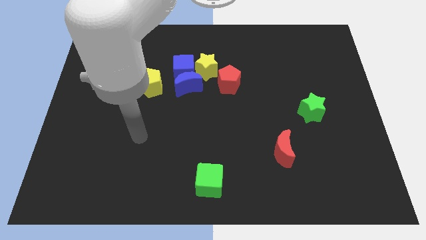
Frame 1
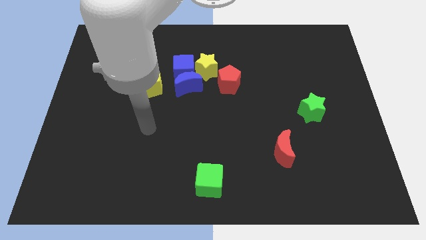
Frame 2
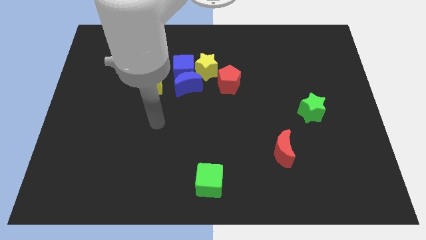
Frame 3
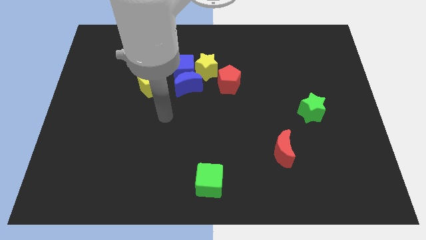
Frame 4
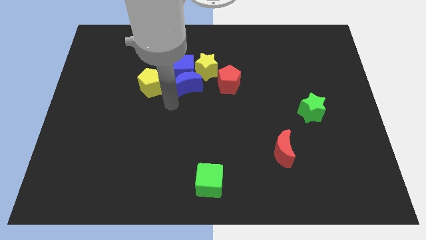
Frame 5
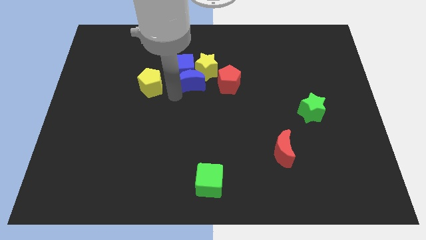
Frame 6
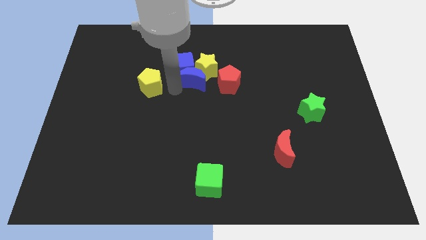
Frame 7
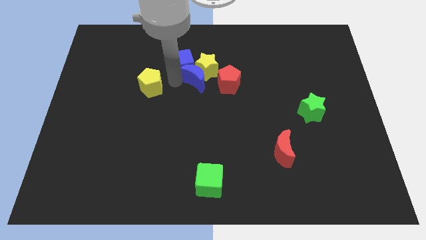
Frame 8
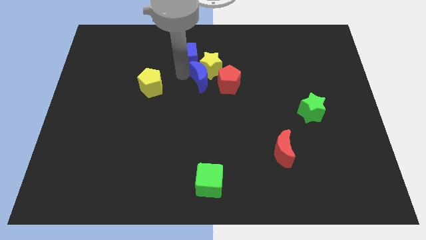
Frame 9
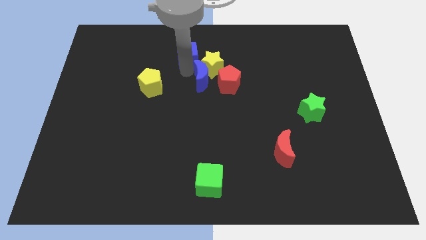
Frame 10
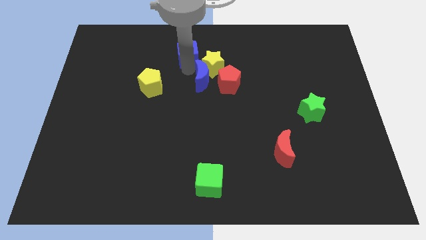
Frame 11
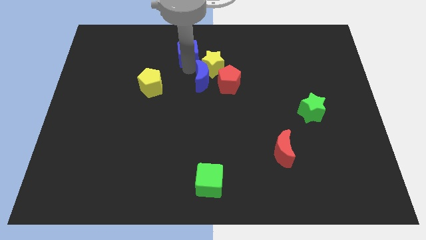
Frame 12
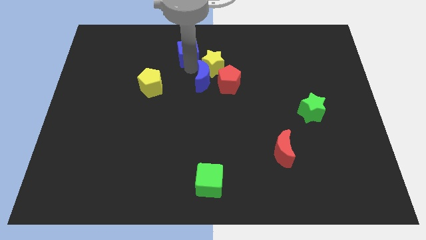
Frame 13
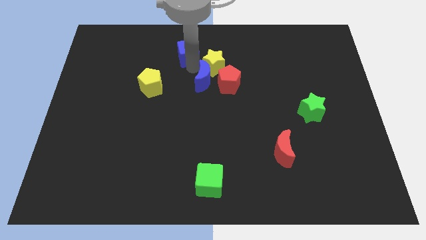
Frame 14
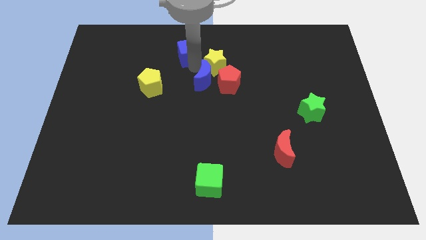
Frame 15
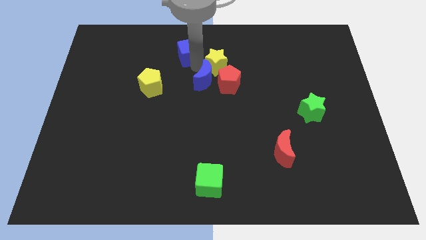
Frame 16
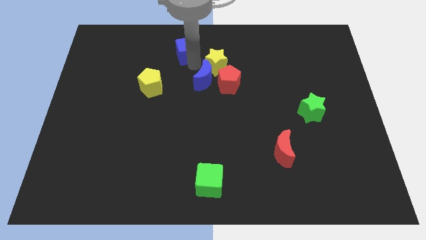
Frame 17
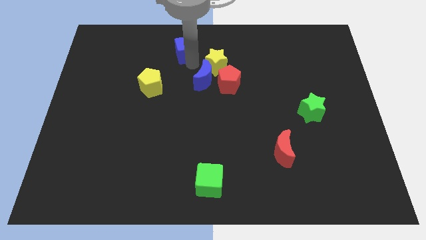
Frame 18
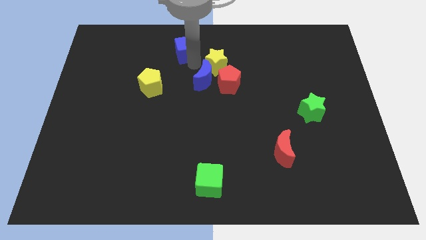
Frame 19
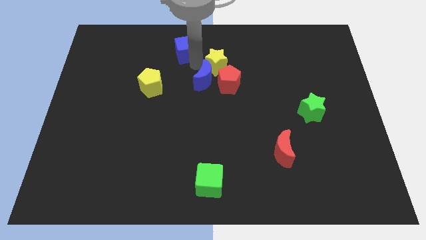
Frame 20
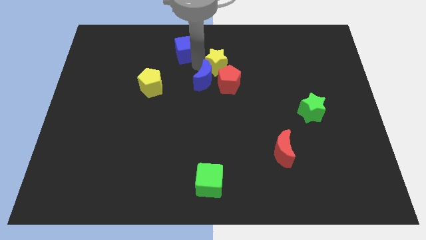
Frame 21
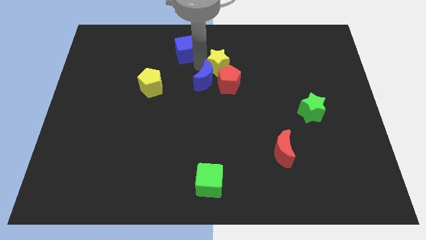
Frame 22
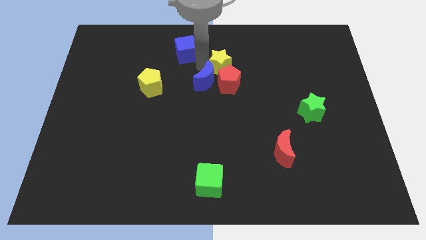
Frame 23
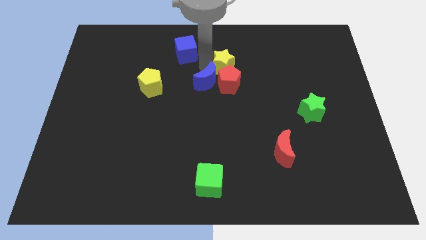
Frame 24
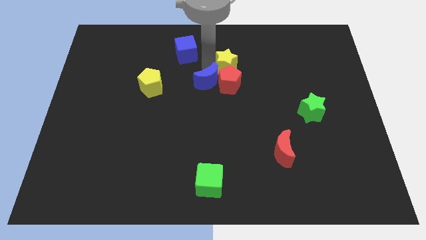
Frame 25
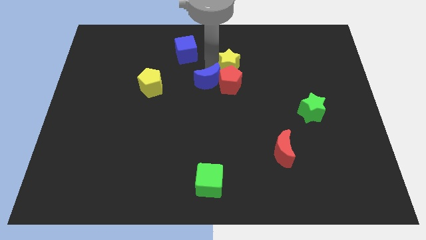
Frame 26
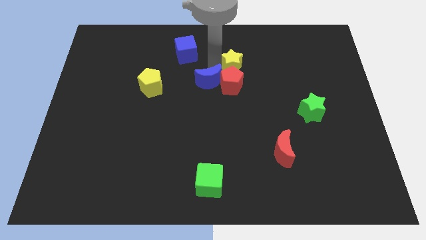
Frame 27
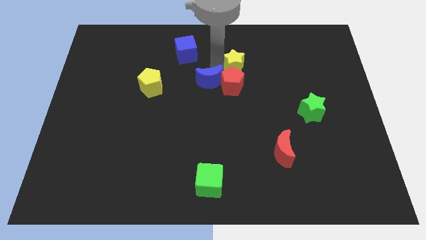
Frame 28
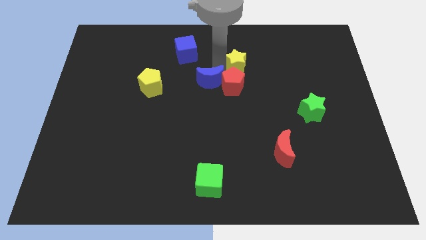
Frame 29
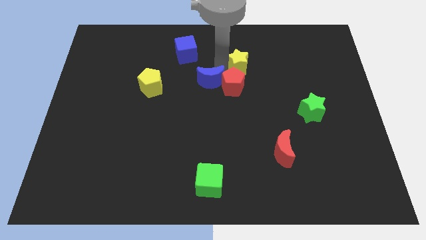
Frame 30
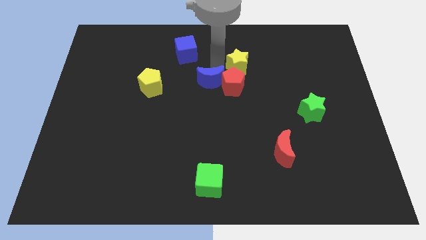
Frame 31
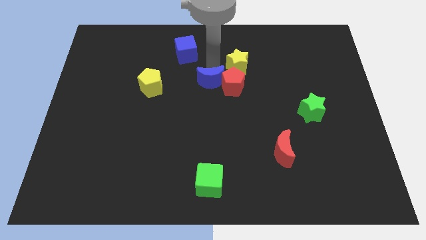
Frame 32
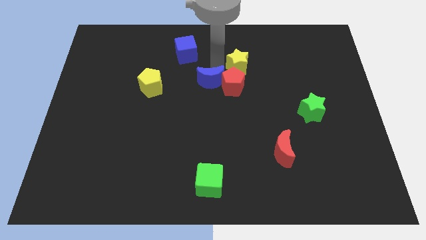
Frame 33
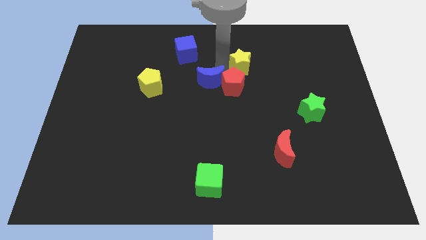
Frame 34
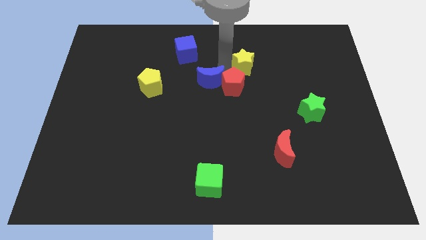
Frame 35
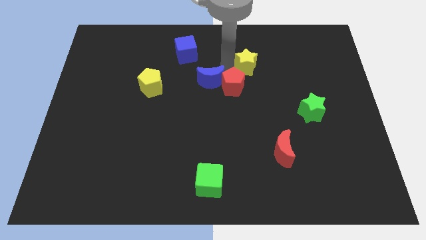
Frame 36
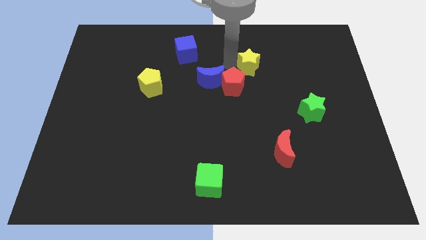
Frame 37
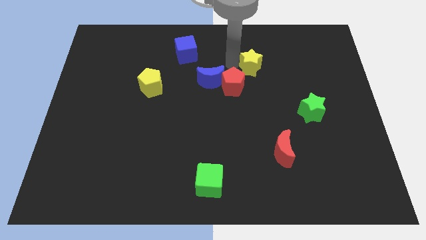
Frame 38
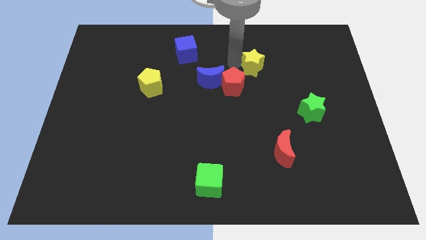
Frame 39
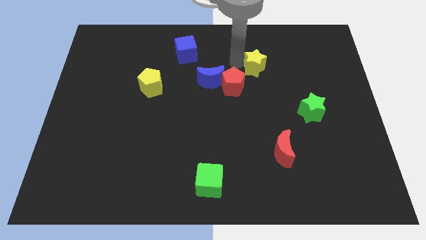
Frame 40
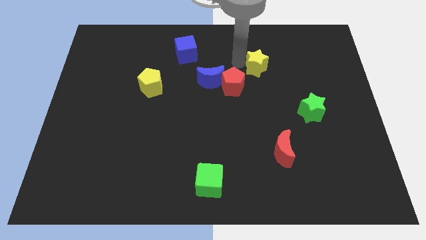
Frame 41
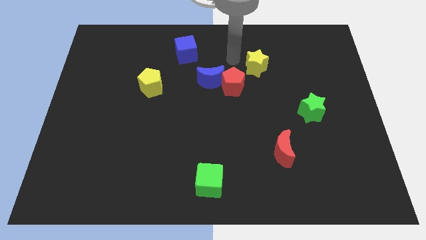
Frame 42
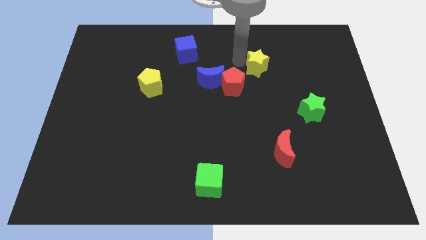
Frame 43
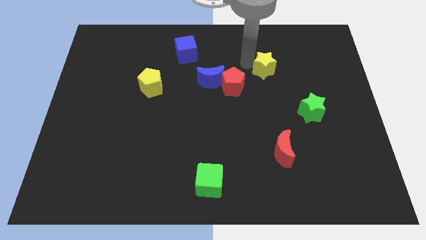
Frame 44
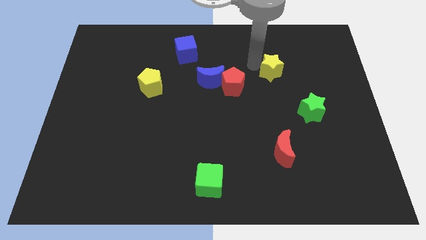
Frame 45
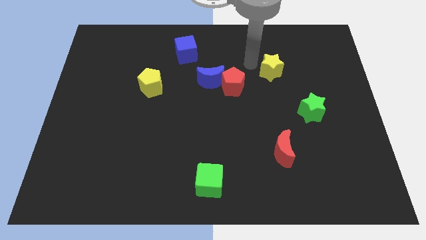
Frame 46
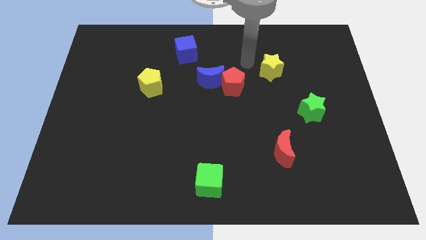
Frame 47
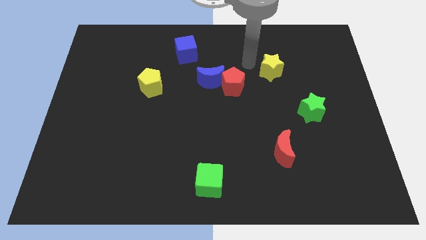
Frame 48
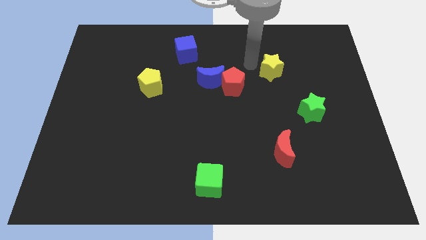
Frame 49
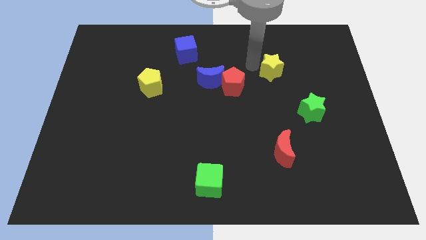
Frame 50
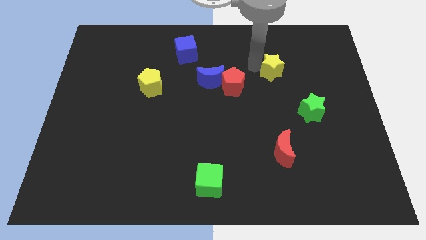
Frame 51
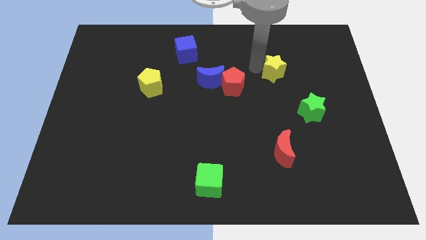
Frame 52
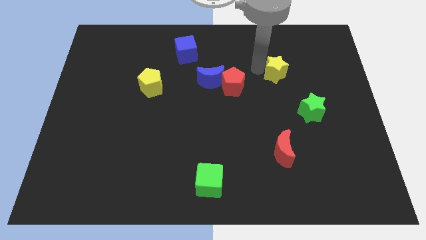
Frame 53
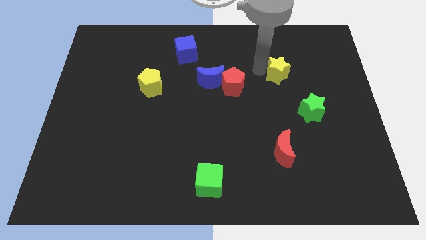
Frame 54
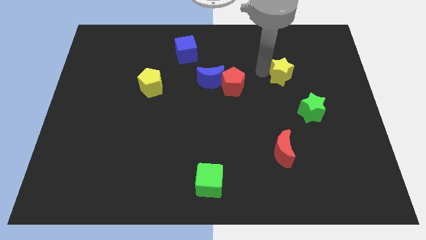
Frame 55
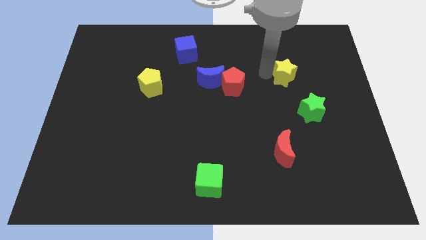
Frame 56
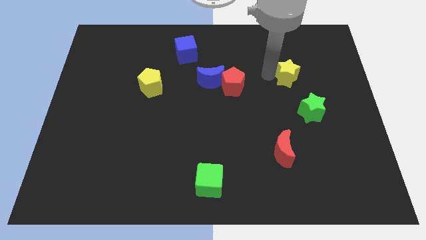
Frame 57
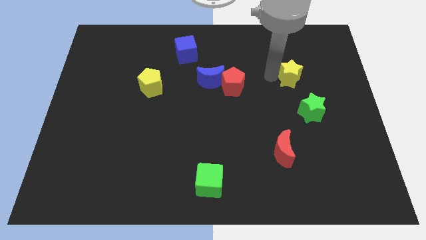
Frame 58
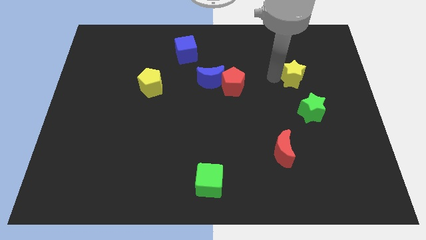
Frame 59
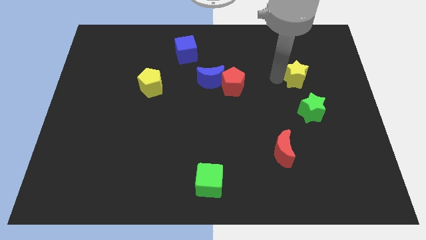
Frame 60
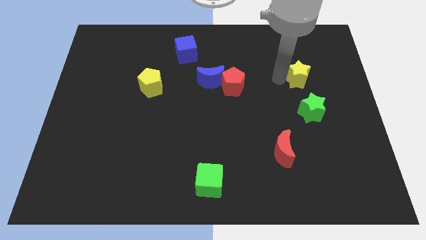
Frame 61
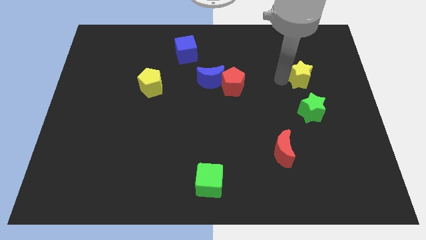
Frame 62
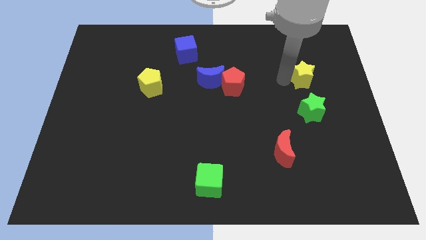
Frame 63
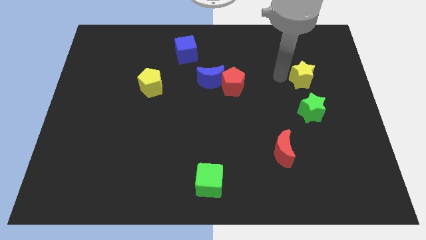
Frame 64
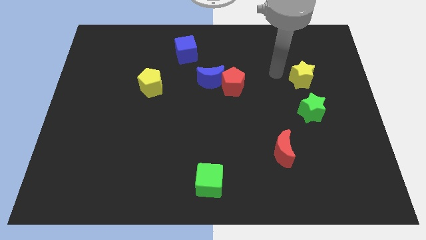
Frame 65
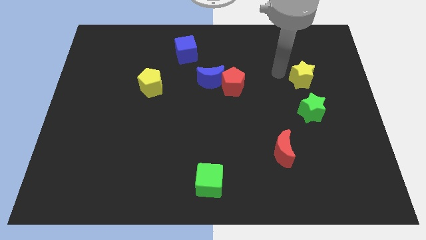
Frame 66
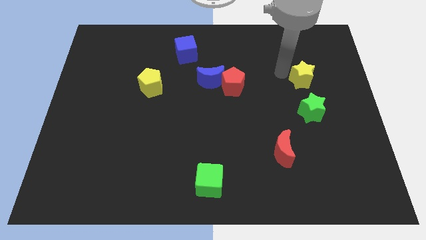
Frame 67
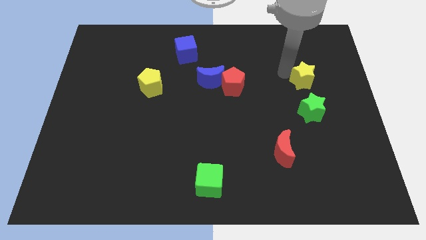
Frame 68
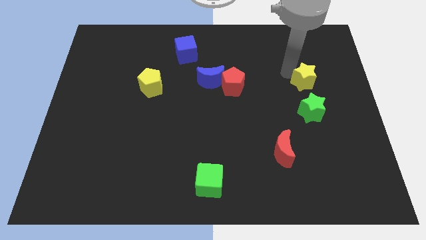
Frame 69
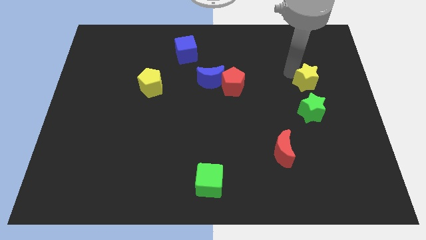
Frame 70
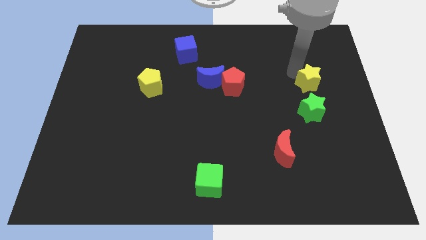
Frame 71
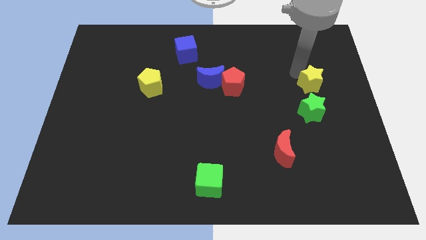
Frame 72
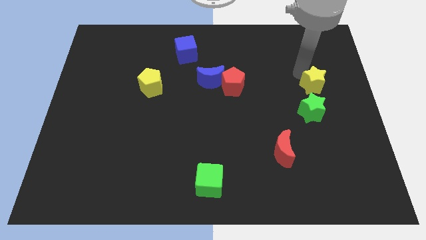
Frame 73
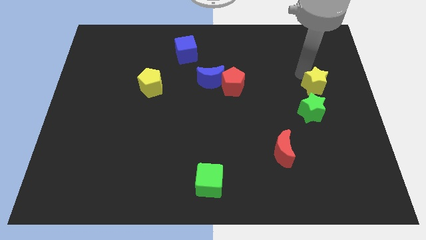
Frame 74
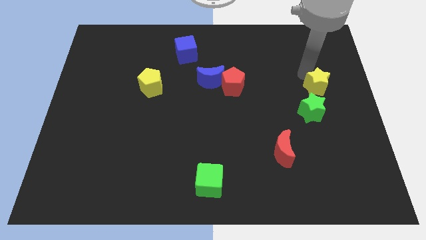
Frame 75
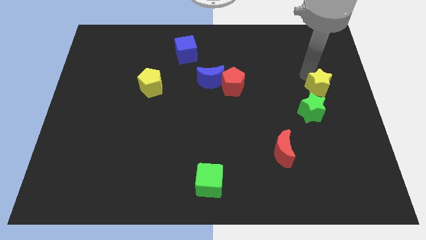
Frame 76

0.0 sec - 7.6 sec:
move the yellow star to the center right
